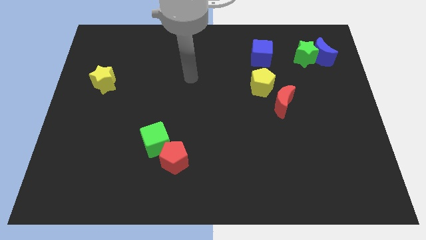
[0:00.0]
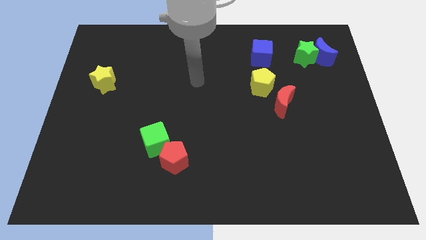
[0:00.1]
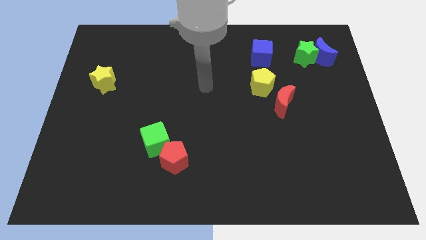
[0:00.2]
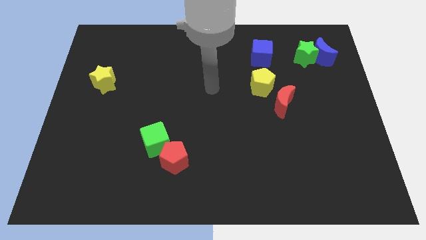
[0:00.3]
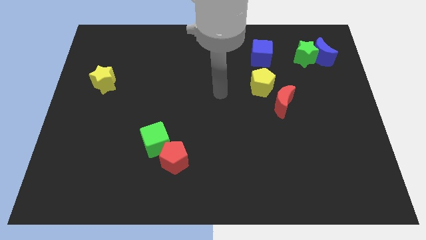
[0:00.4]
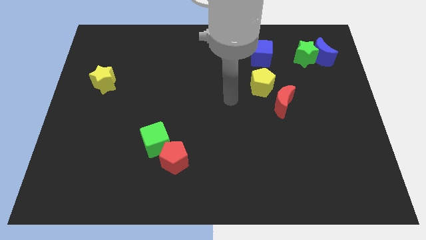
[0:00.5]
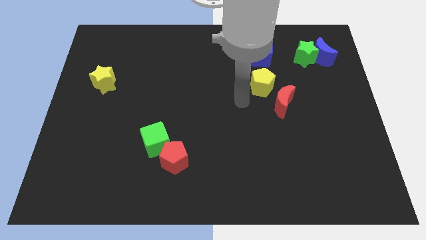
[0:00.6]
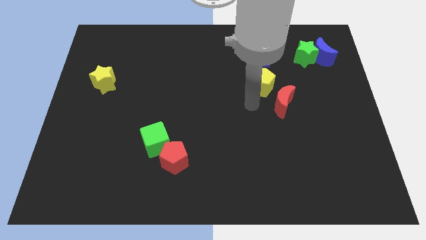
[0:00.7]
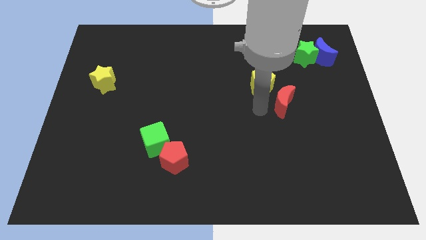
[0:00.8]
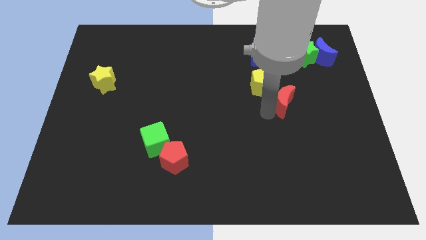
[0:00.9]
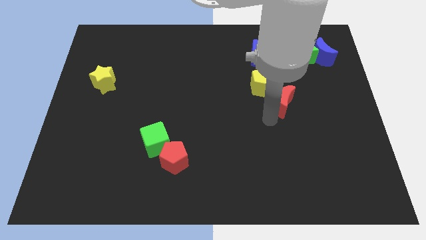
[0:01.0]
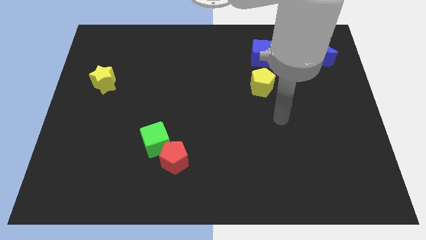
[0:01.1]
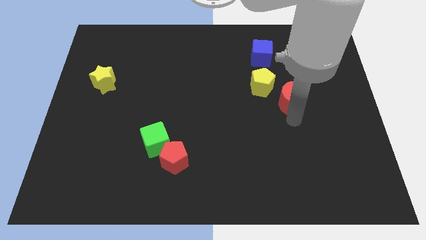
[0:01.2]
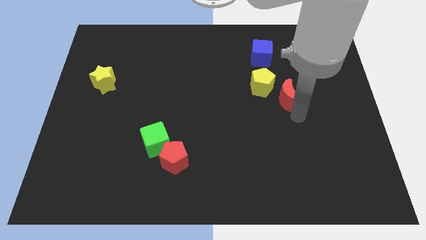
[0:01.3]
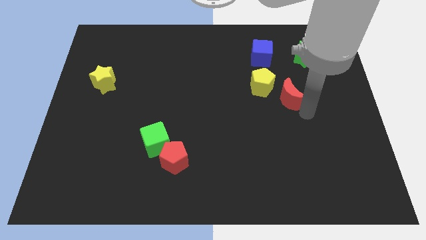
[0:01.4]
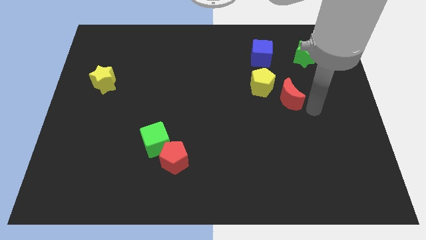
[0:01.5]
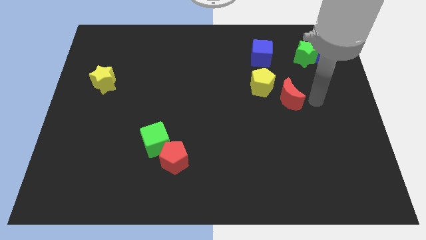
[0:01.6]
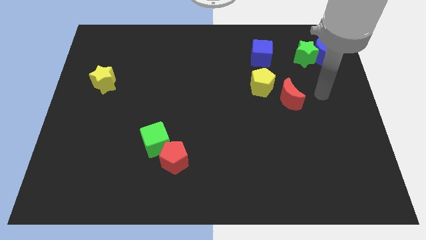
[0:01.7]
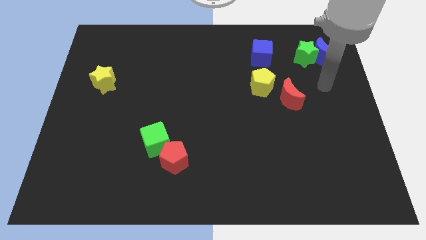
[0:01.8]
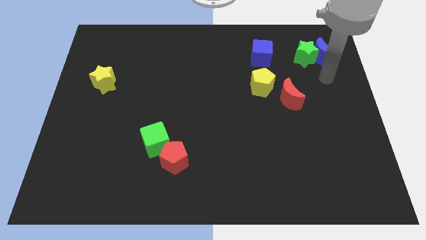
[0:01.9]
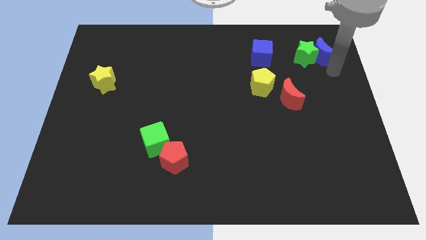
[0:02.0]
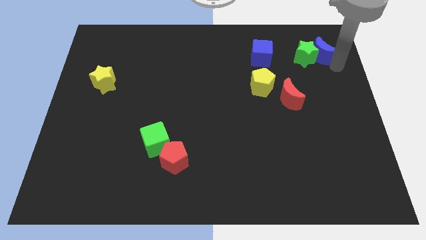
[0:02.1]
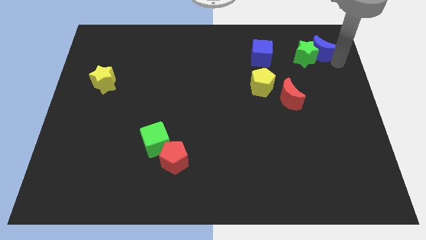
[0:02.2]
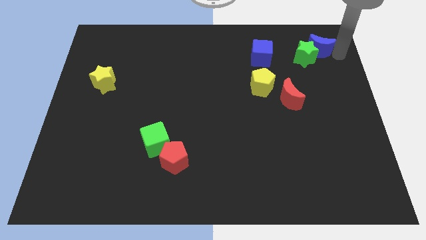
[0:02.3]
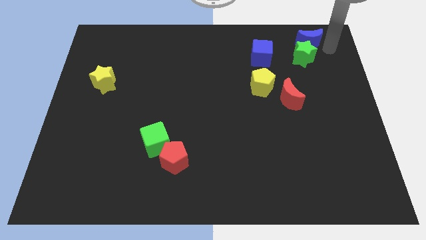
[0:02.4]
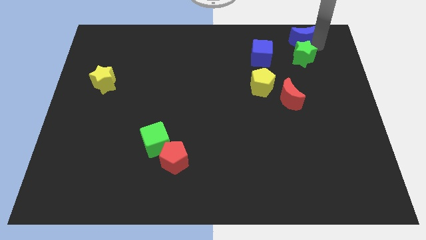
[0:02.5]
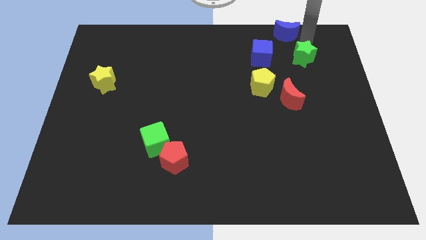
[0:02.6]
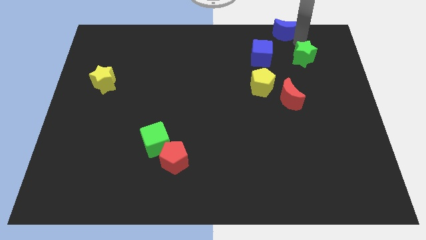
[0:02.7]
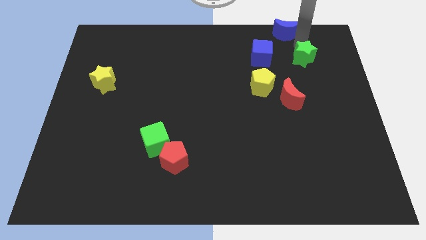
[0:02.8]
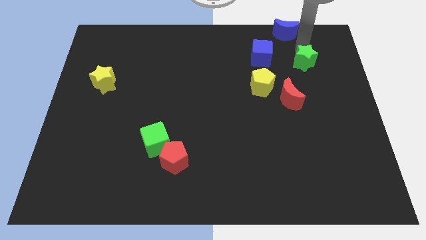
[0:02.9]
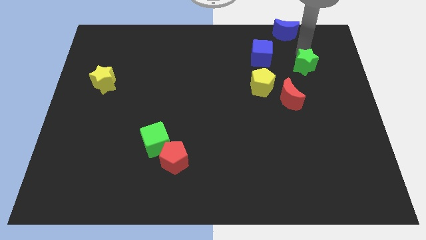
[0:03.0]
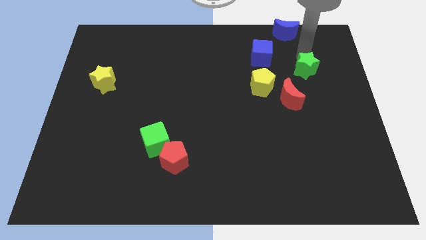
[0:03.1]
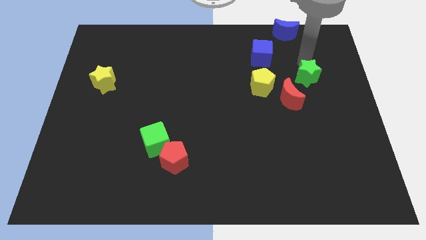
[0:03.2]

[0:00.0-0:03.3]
move the green star downwards slightly

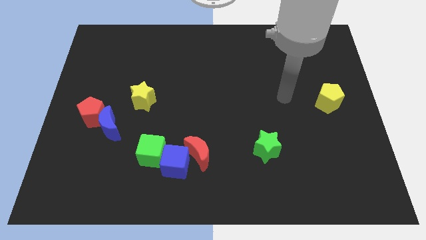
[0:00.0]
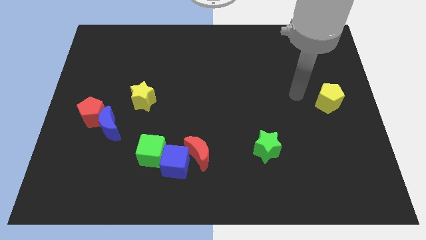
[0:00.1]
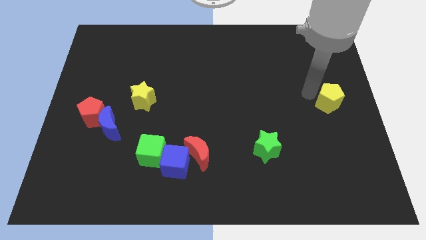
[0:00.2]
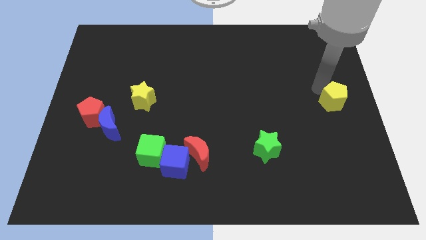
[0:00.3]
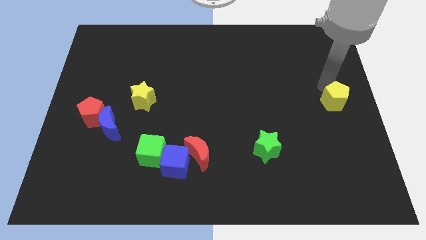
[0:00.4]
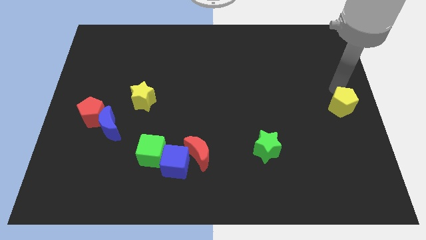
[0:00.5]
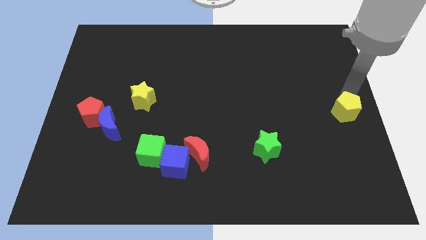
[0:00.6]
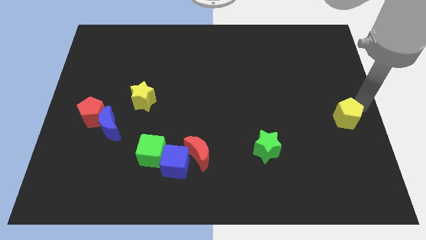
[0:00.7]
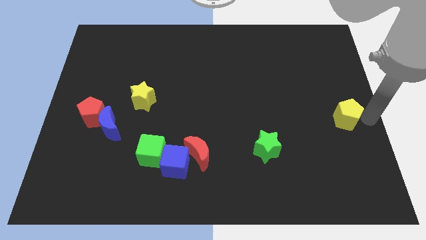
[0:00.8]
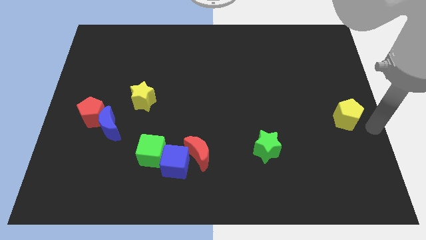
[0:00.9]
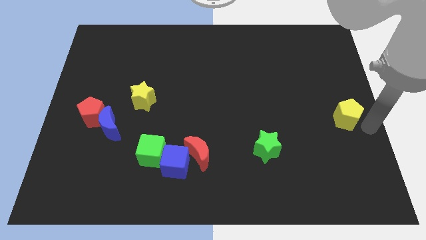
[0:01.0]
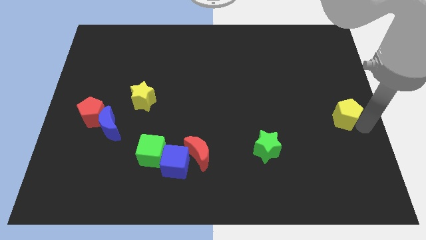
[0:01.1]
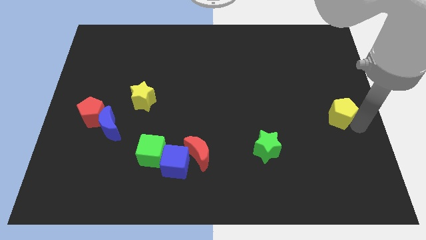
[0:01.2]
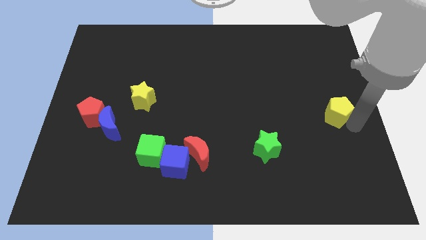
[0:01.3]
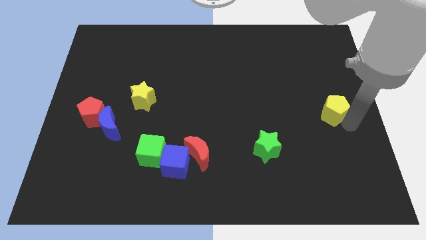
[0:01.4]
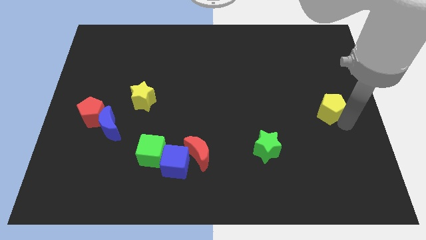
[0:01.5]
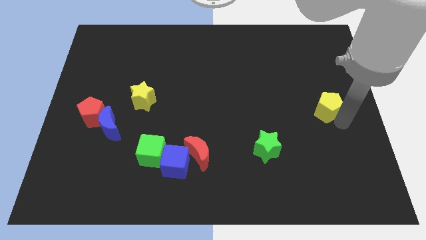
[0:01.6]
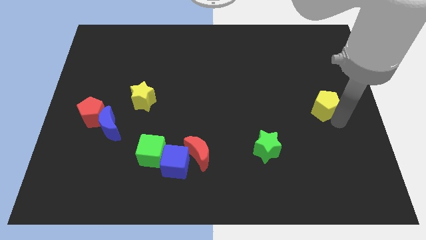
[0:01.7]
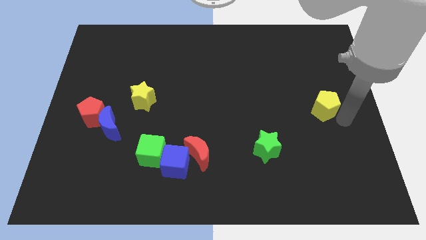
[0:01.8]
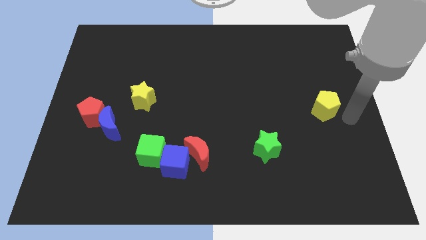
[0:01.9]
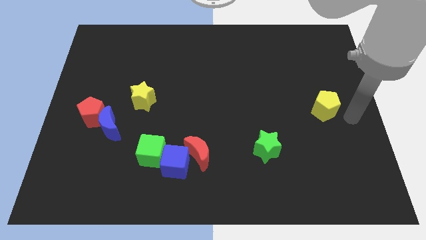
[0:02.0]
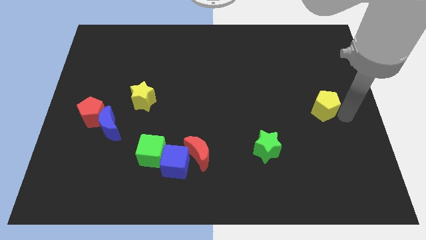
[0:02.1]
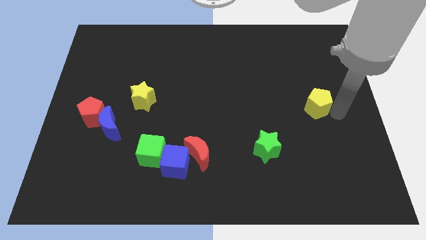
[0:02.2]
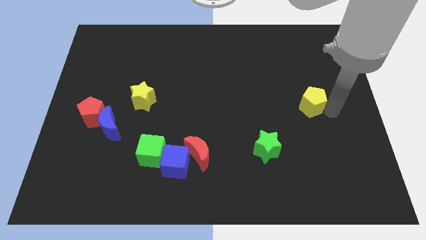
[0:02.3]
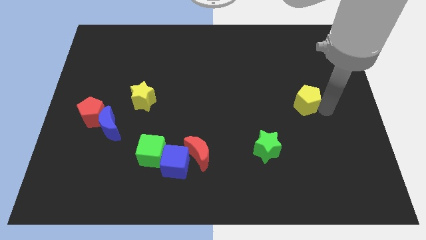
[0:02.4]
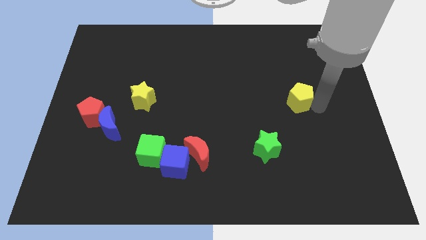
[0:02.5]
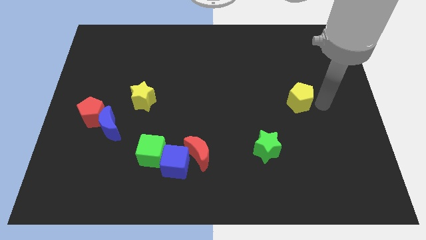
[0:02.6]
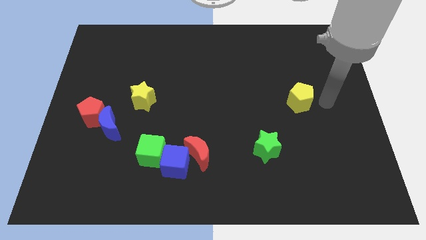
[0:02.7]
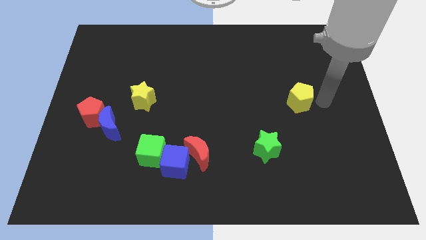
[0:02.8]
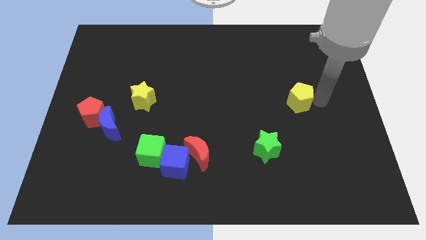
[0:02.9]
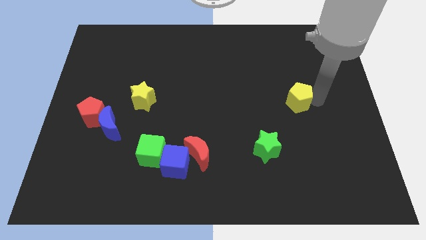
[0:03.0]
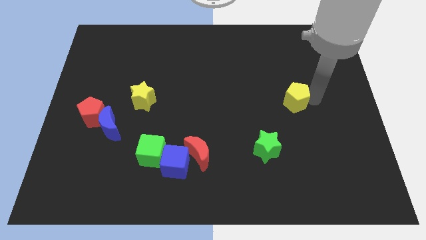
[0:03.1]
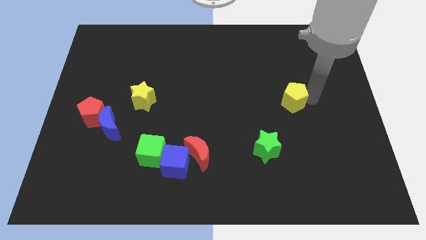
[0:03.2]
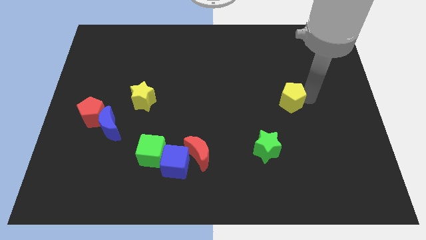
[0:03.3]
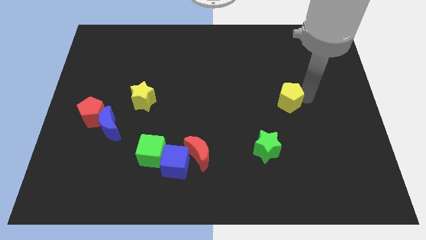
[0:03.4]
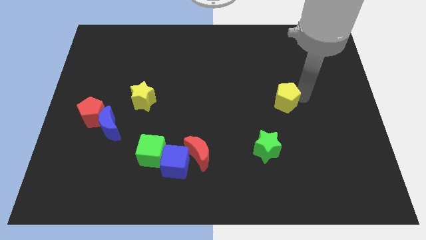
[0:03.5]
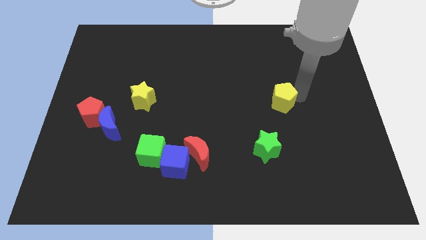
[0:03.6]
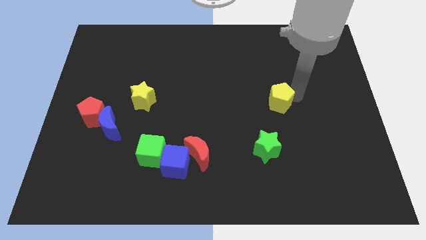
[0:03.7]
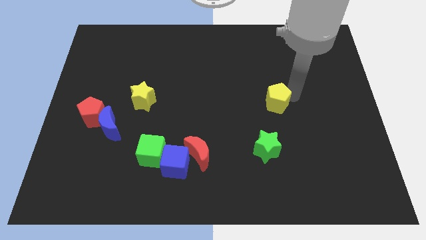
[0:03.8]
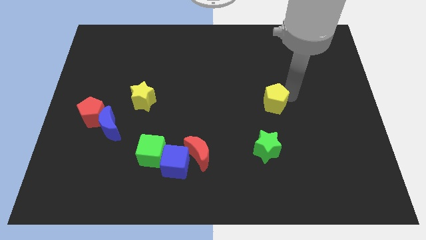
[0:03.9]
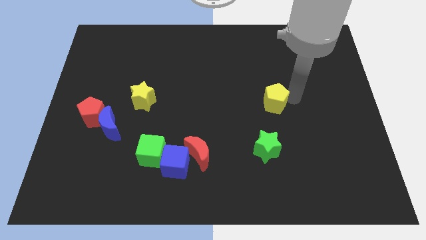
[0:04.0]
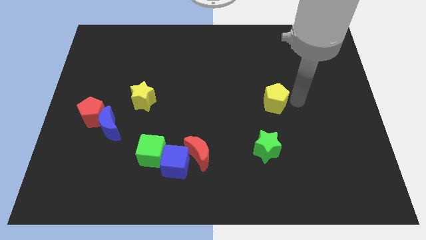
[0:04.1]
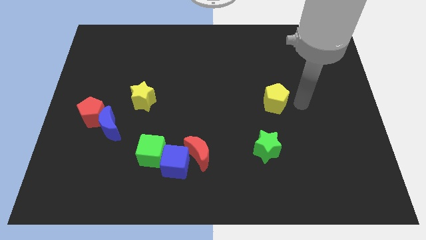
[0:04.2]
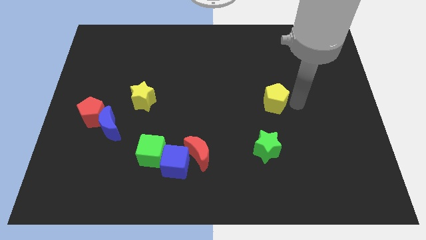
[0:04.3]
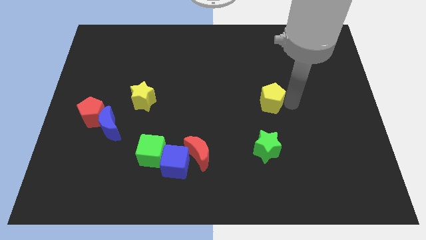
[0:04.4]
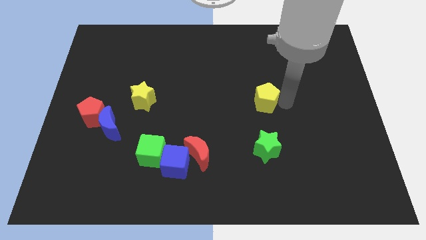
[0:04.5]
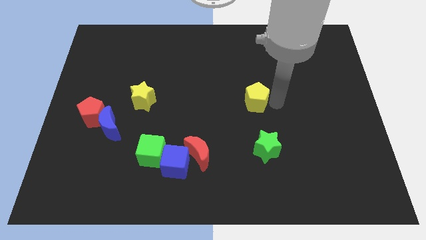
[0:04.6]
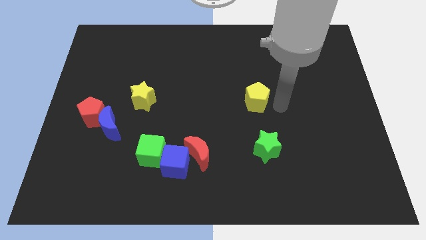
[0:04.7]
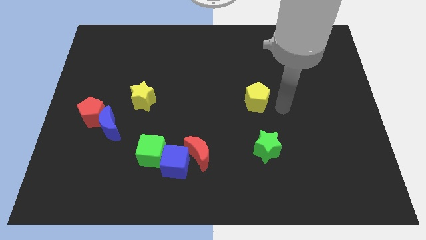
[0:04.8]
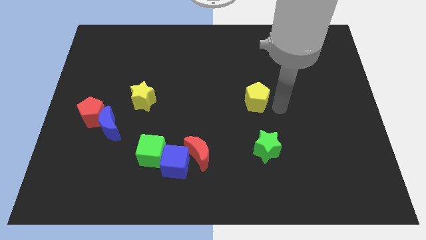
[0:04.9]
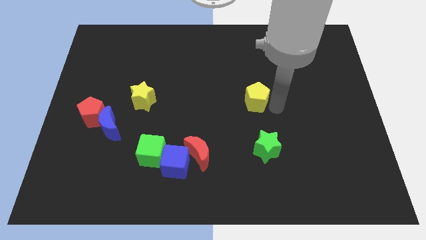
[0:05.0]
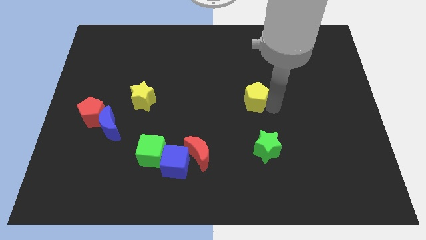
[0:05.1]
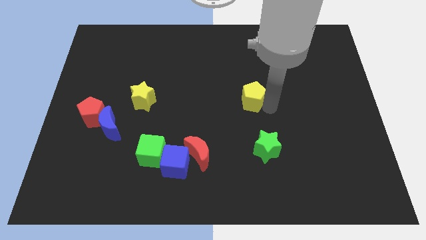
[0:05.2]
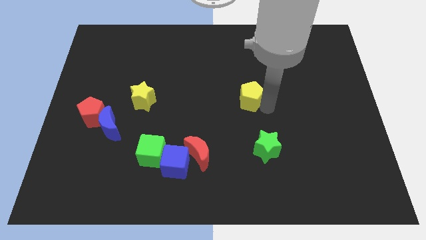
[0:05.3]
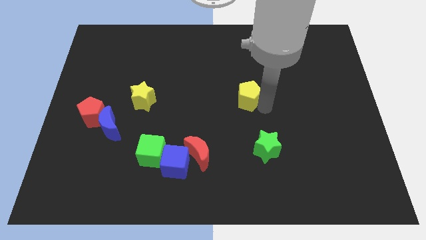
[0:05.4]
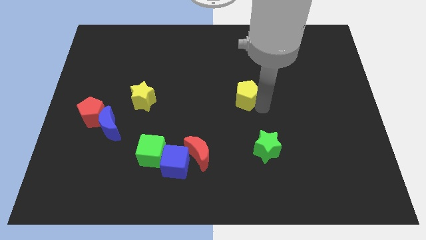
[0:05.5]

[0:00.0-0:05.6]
slide the yellow pentagon to the left
